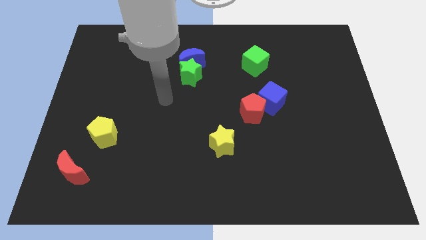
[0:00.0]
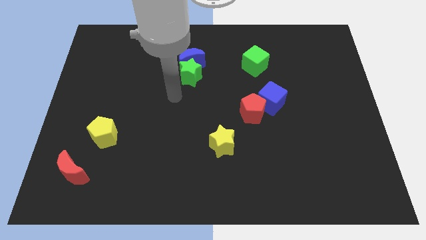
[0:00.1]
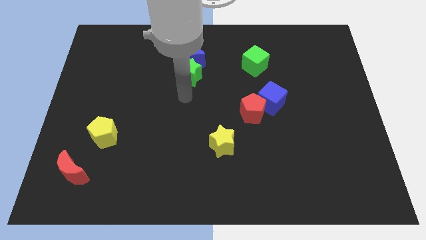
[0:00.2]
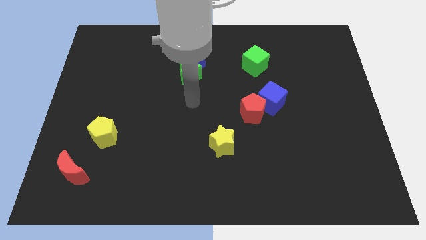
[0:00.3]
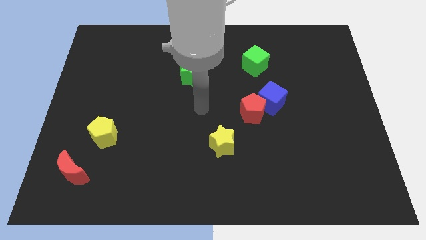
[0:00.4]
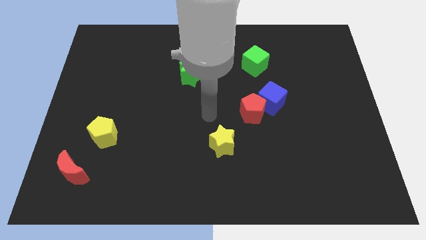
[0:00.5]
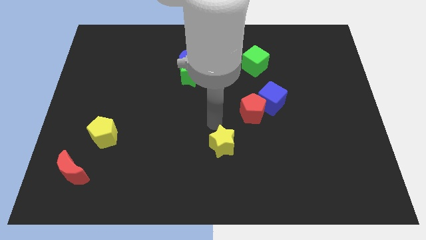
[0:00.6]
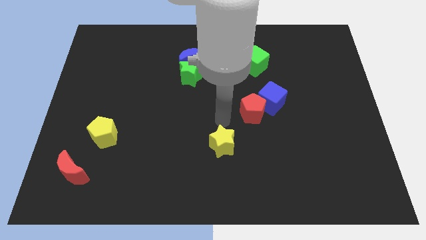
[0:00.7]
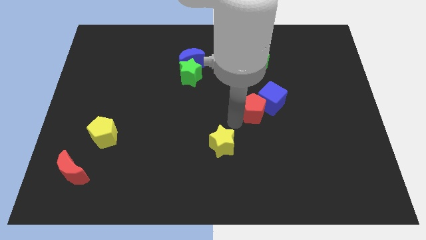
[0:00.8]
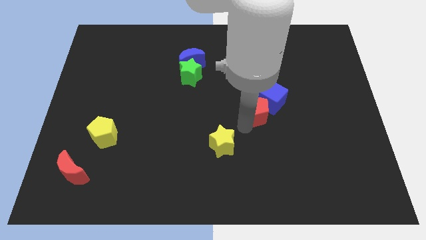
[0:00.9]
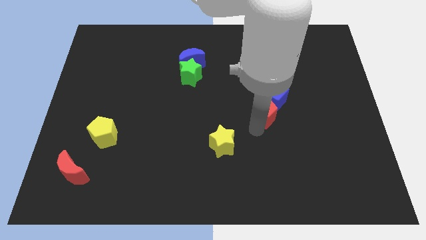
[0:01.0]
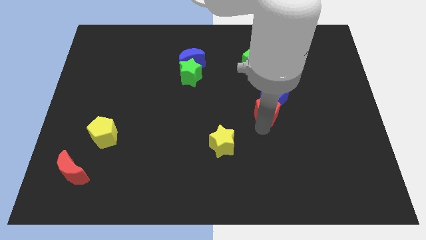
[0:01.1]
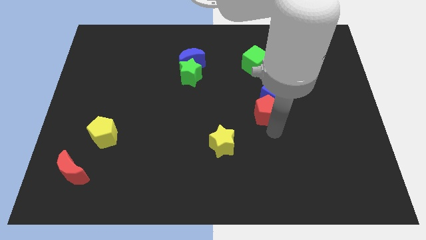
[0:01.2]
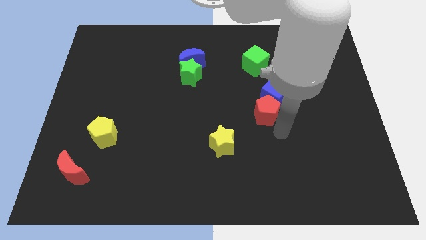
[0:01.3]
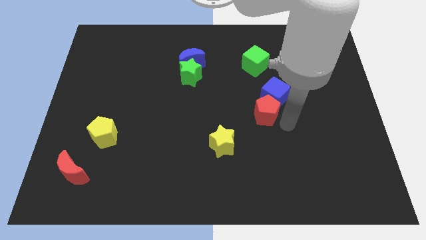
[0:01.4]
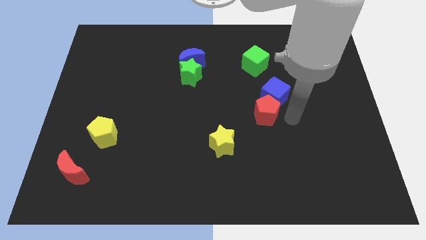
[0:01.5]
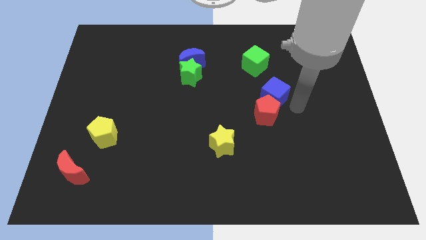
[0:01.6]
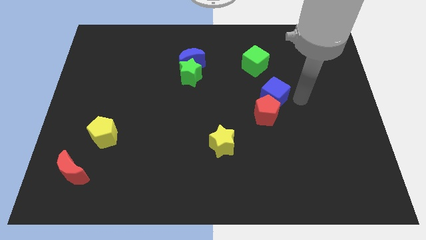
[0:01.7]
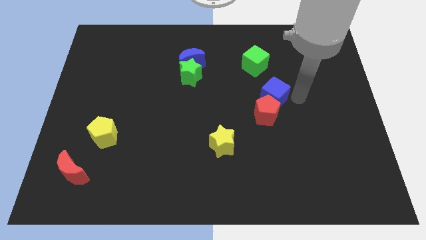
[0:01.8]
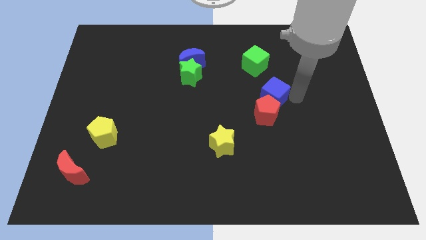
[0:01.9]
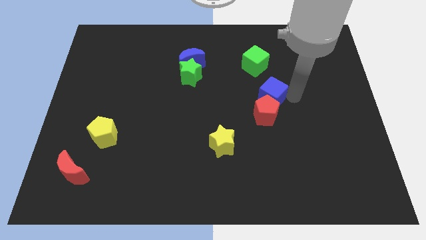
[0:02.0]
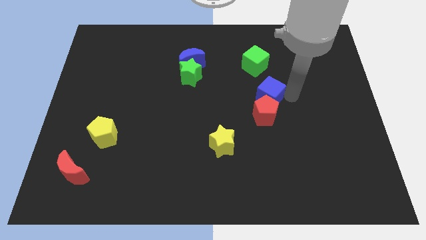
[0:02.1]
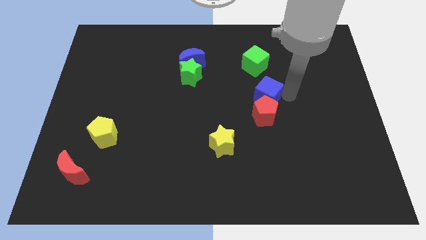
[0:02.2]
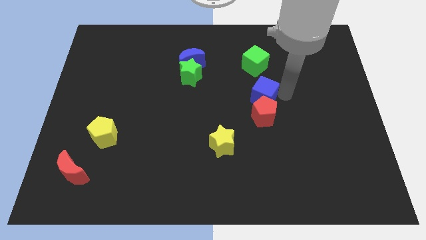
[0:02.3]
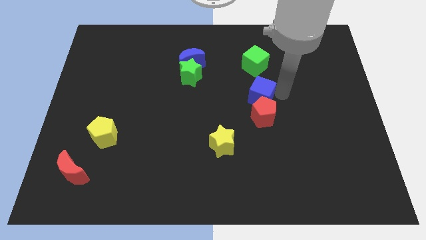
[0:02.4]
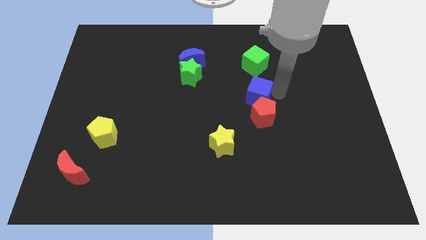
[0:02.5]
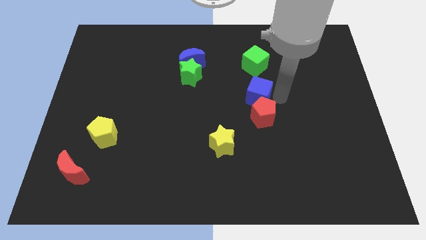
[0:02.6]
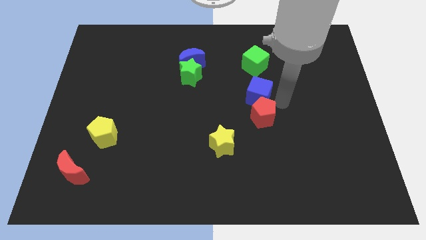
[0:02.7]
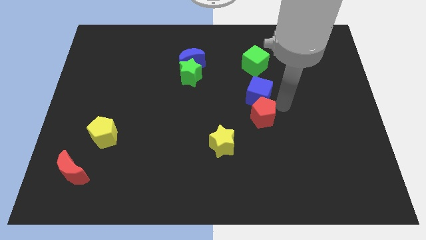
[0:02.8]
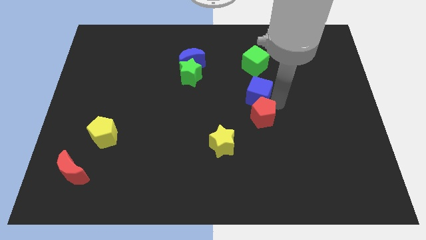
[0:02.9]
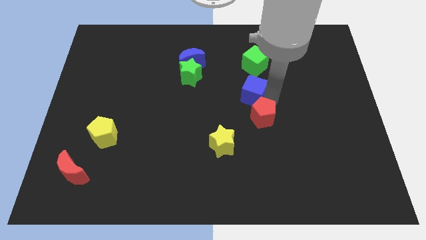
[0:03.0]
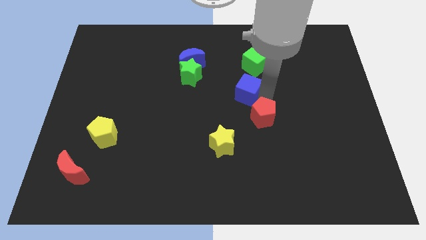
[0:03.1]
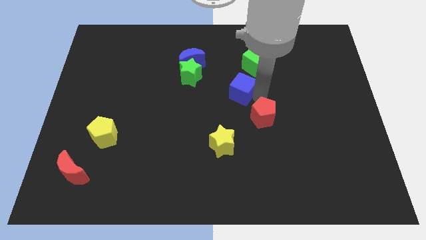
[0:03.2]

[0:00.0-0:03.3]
slightly push the blue cube upwards and then left

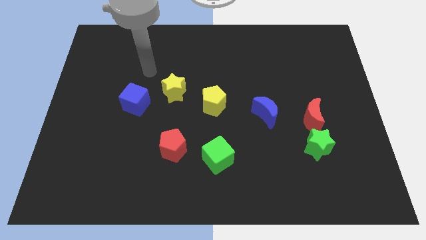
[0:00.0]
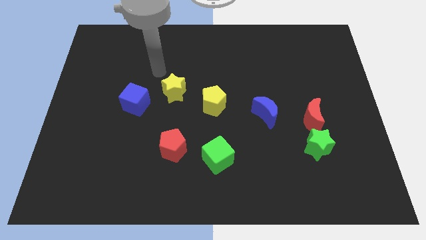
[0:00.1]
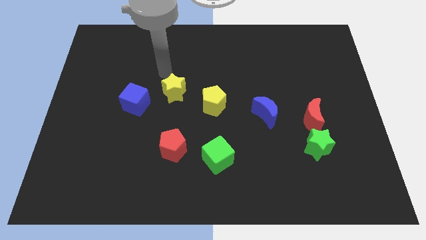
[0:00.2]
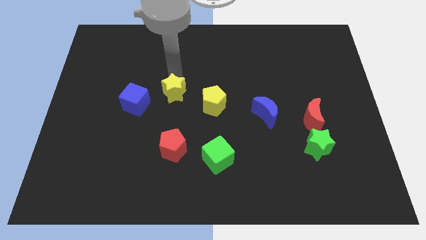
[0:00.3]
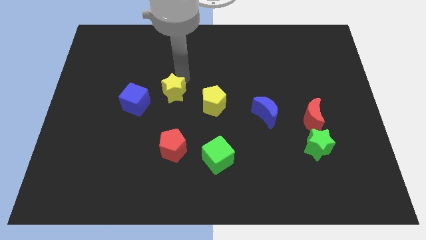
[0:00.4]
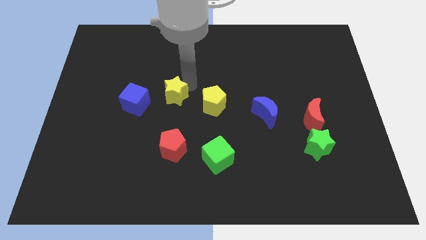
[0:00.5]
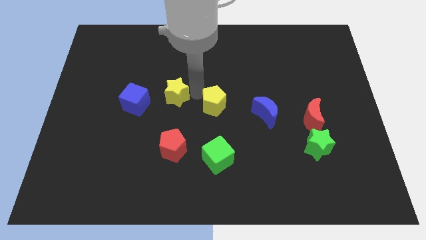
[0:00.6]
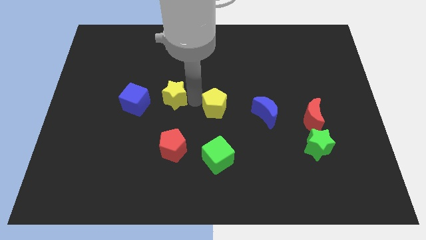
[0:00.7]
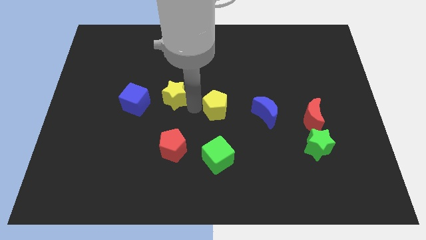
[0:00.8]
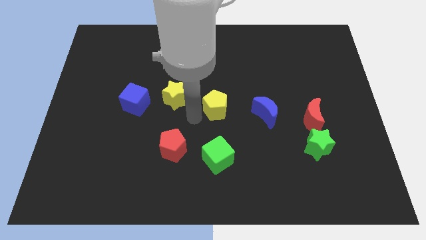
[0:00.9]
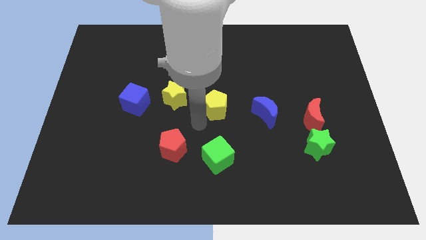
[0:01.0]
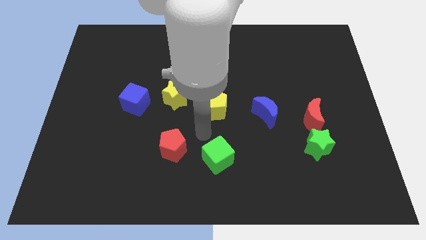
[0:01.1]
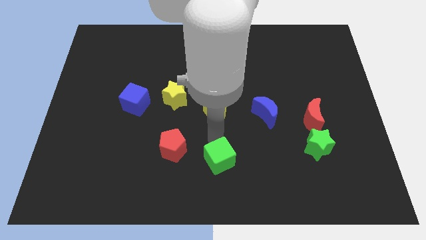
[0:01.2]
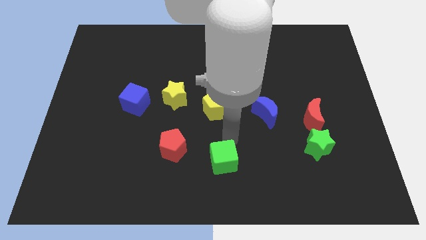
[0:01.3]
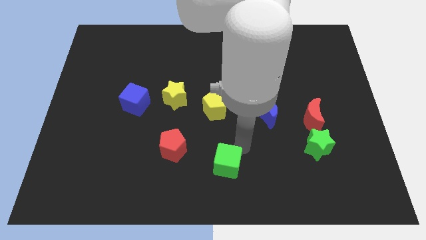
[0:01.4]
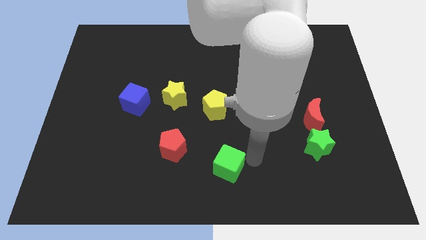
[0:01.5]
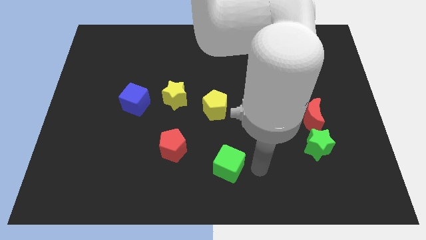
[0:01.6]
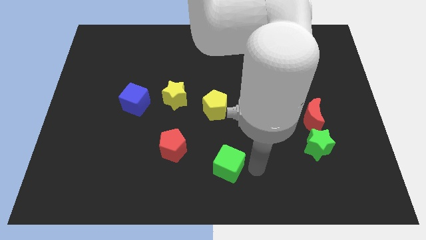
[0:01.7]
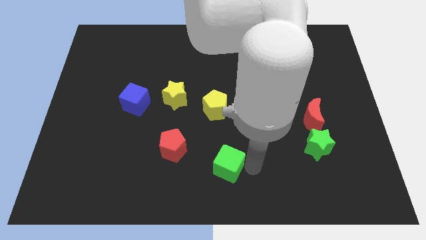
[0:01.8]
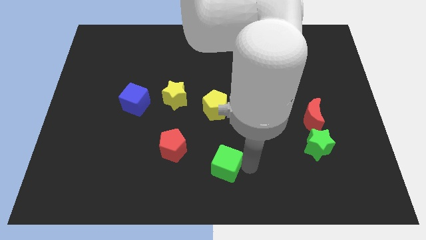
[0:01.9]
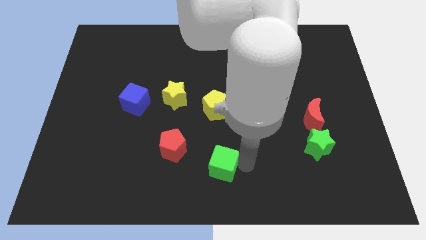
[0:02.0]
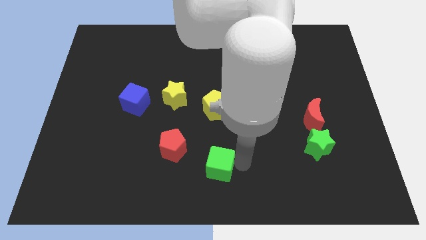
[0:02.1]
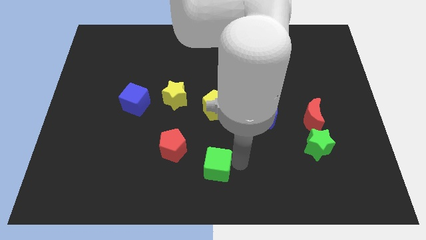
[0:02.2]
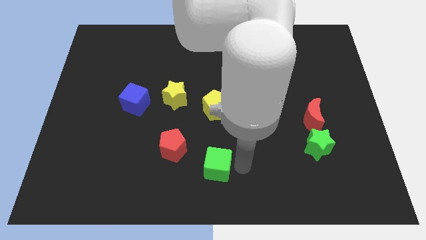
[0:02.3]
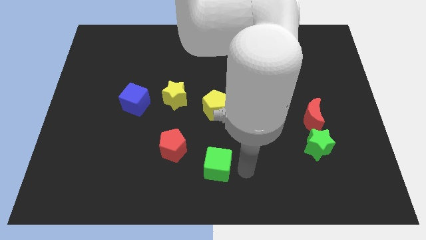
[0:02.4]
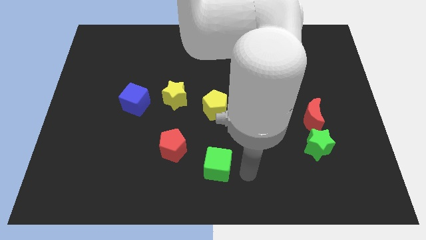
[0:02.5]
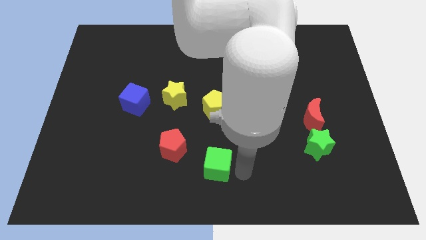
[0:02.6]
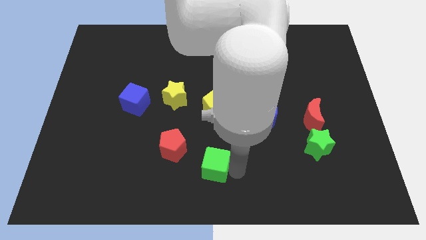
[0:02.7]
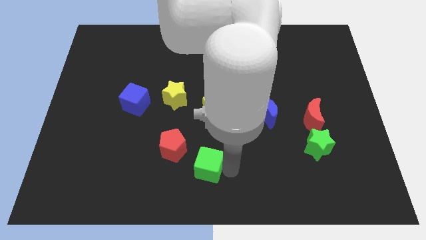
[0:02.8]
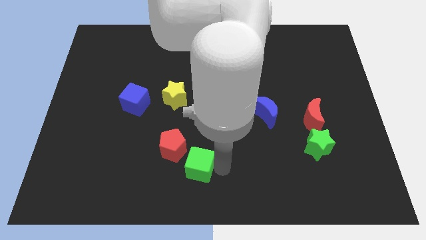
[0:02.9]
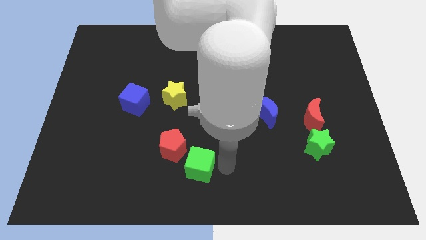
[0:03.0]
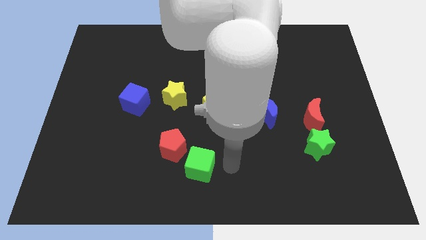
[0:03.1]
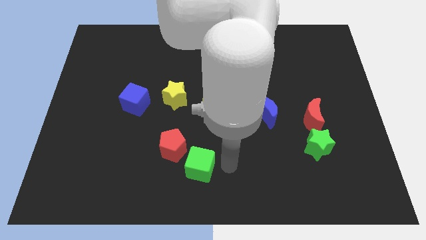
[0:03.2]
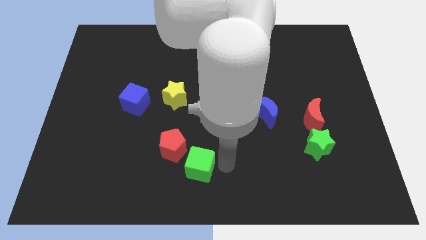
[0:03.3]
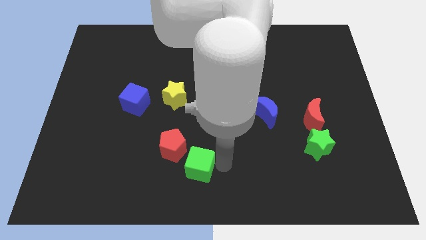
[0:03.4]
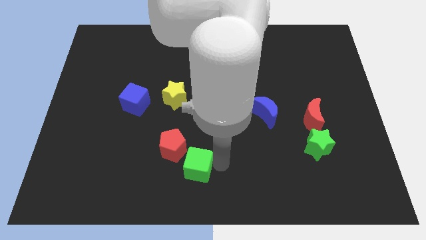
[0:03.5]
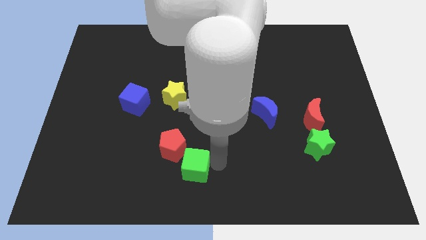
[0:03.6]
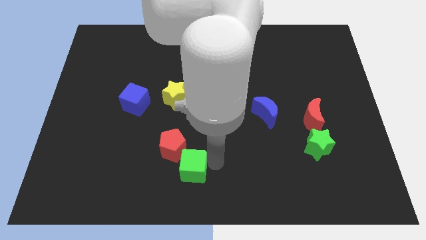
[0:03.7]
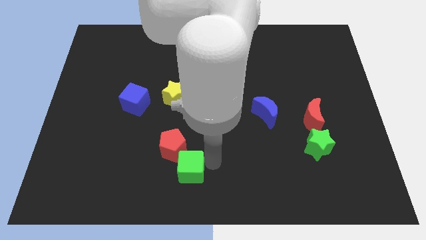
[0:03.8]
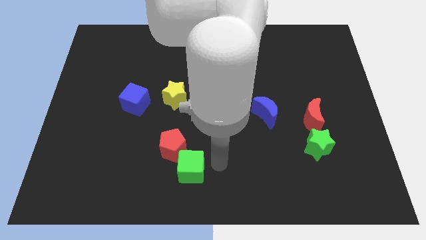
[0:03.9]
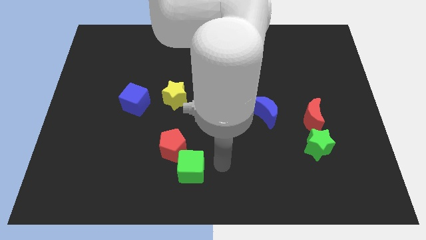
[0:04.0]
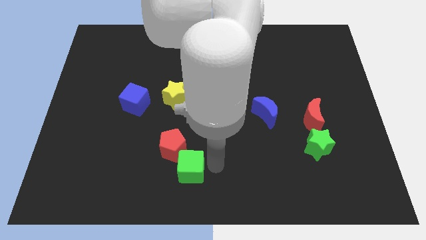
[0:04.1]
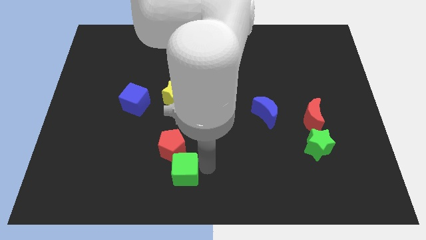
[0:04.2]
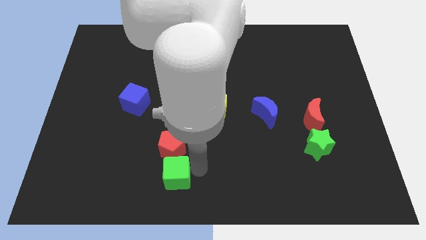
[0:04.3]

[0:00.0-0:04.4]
push the green cube slightly left

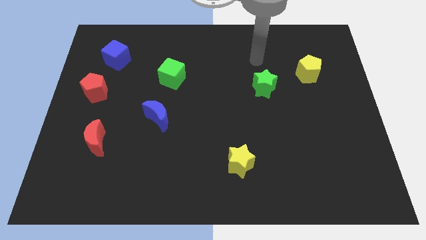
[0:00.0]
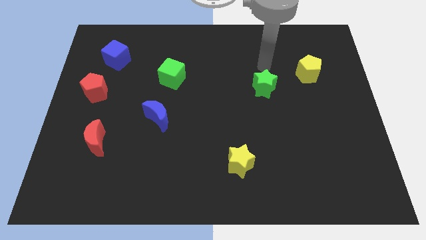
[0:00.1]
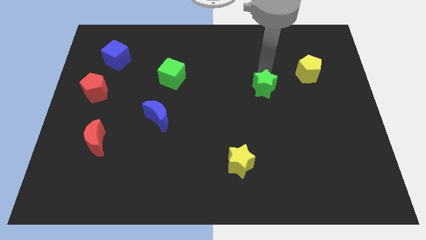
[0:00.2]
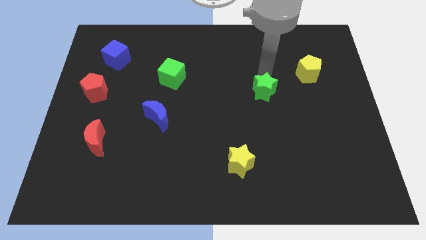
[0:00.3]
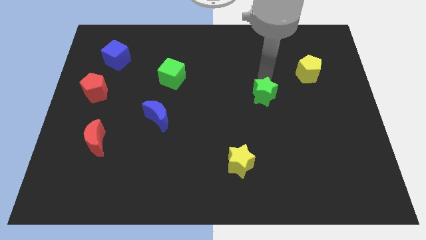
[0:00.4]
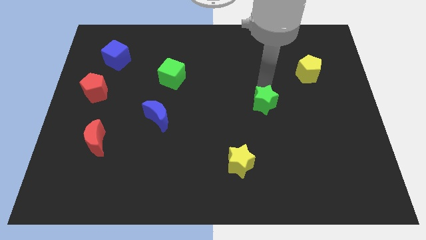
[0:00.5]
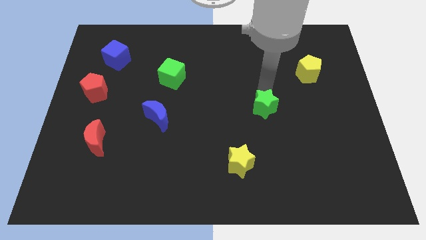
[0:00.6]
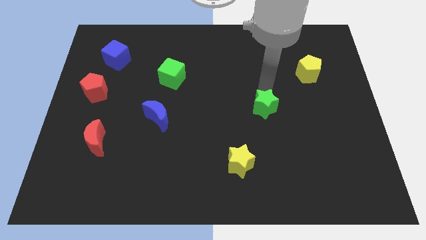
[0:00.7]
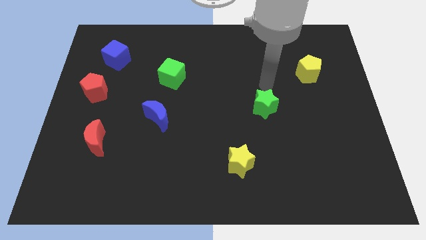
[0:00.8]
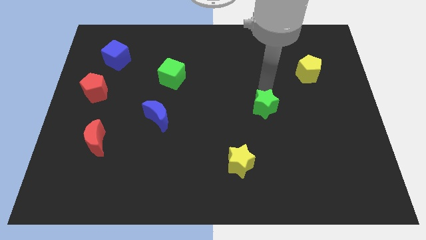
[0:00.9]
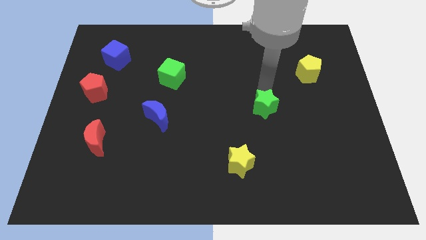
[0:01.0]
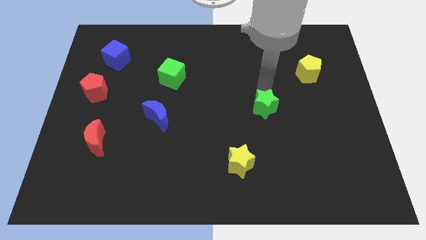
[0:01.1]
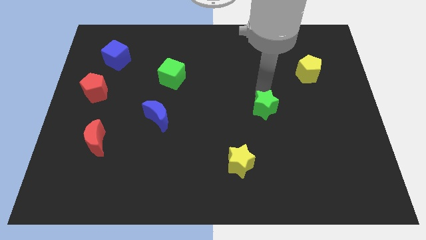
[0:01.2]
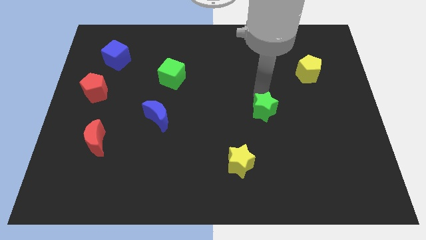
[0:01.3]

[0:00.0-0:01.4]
move the green star downwards slightly
